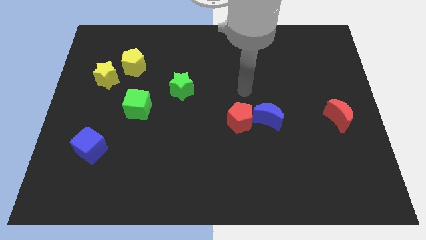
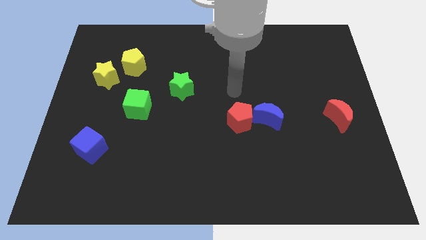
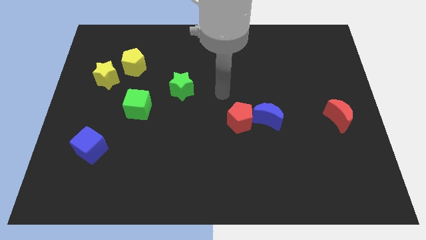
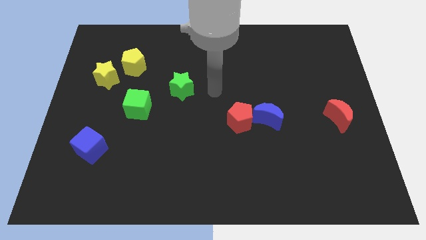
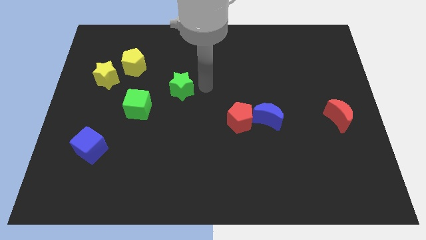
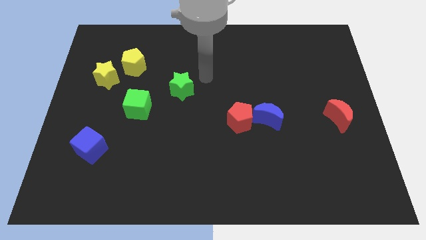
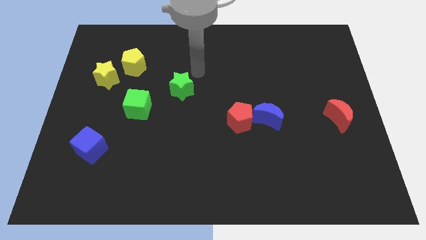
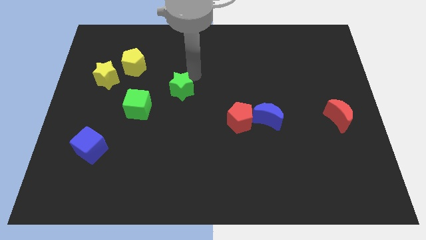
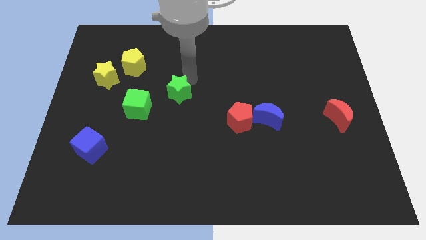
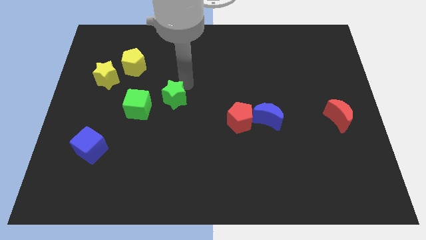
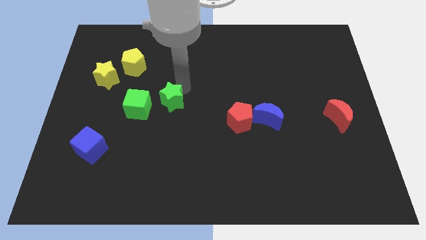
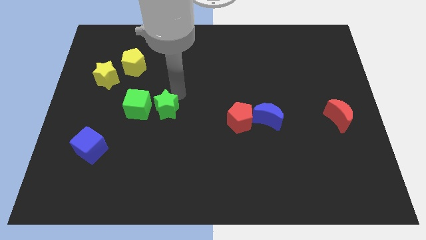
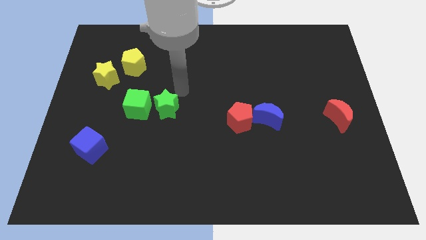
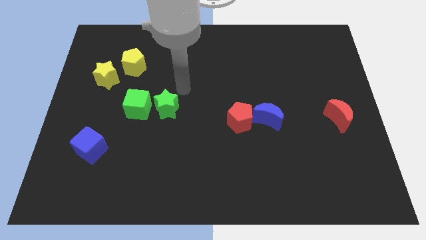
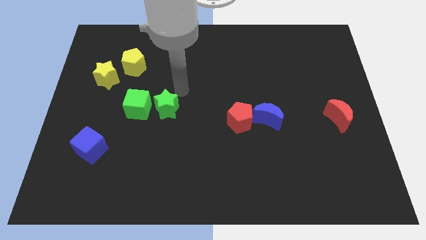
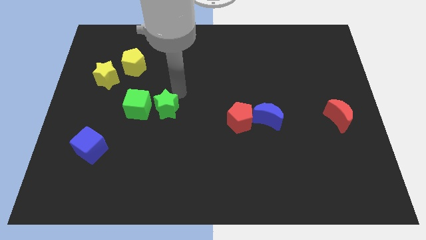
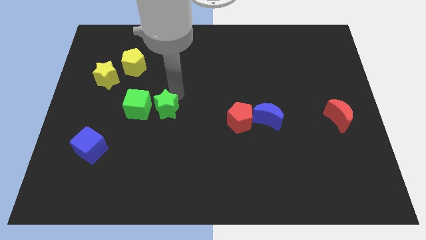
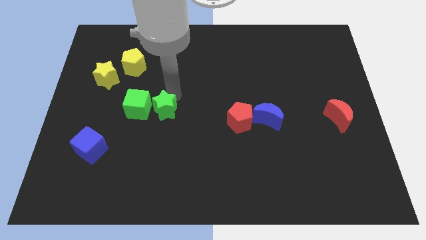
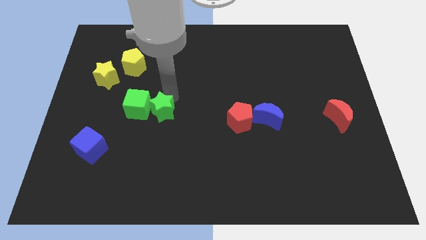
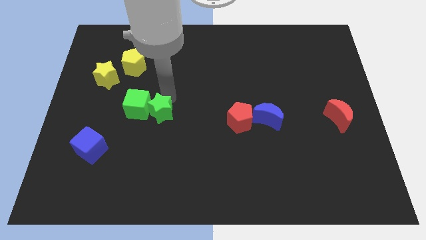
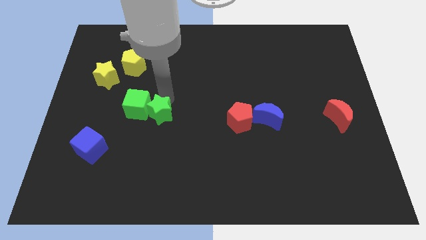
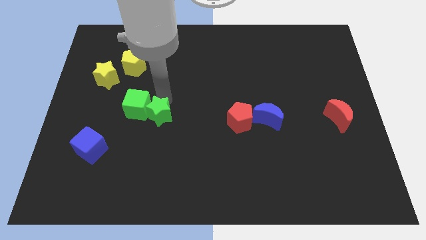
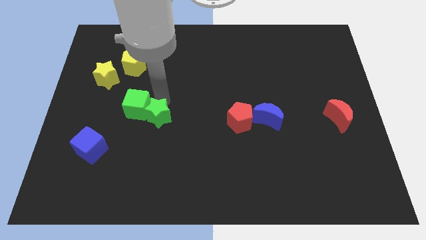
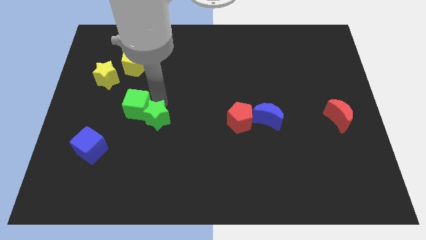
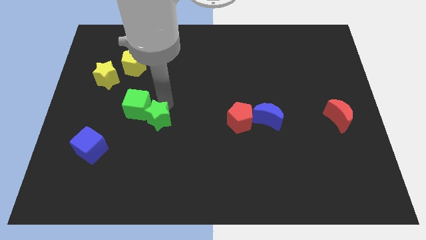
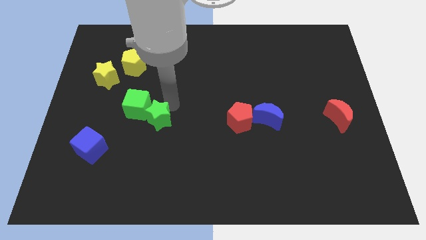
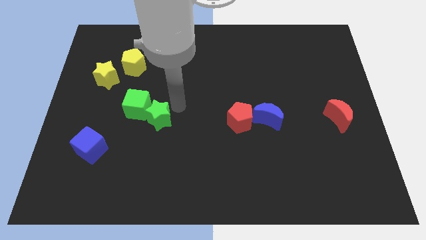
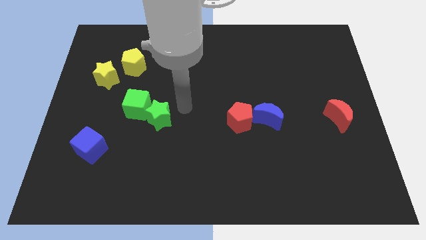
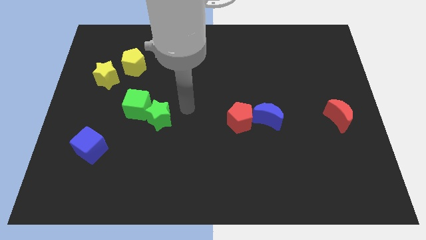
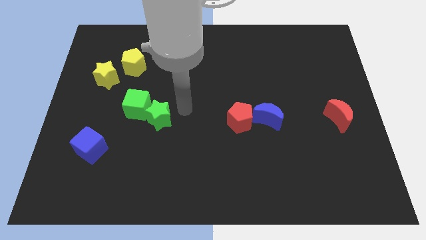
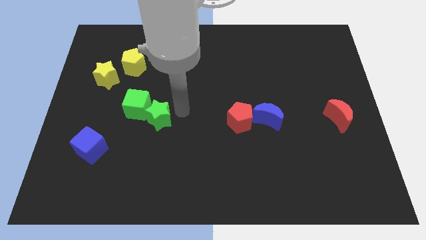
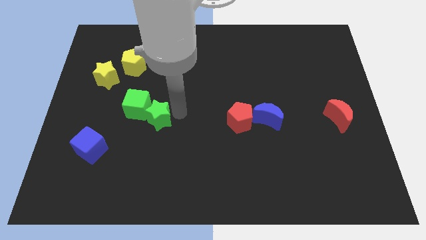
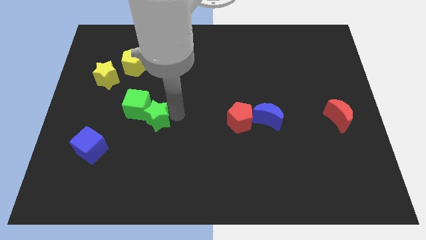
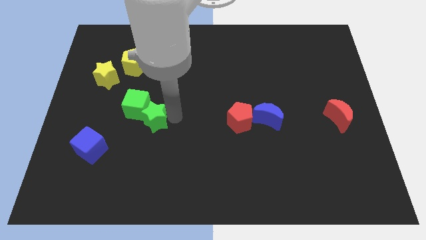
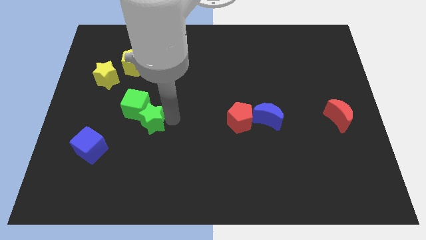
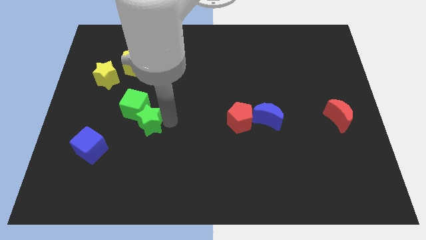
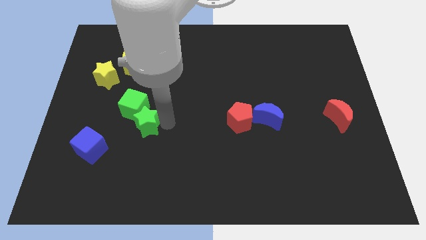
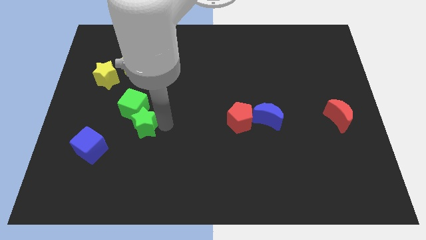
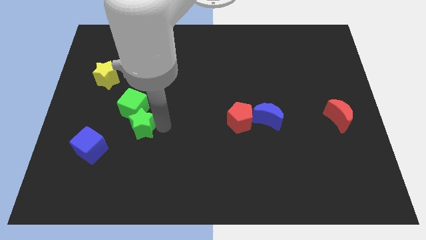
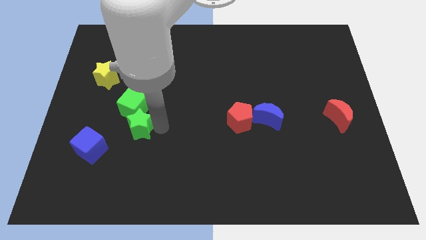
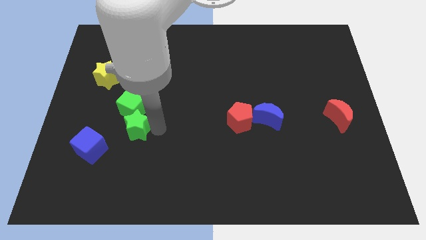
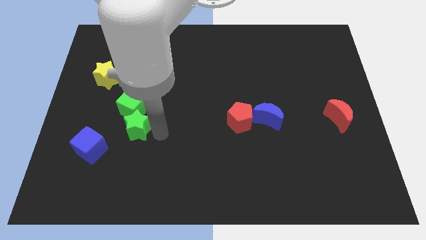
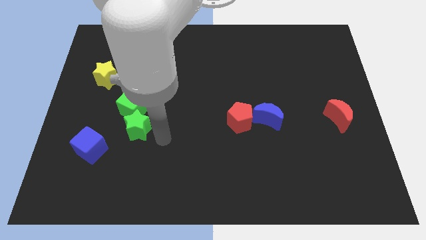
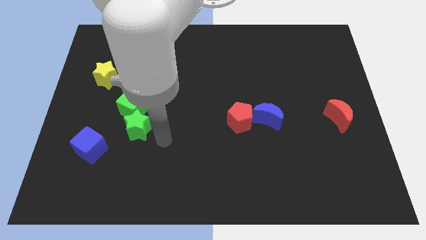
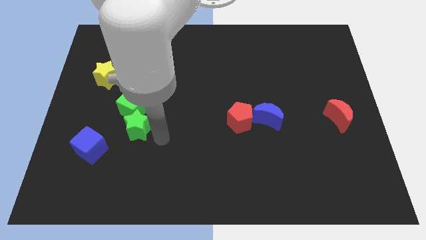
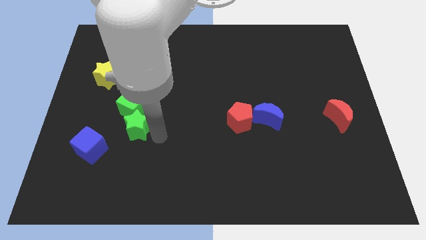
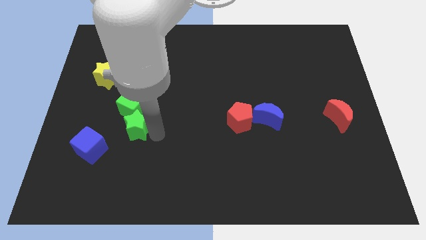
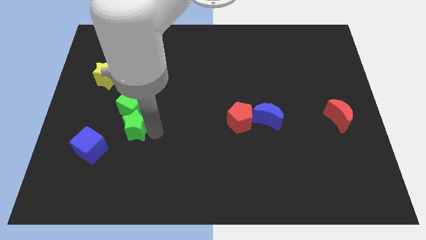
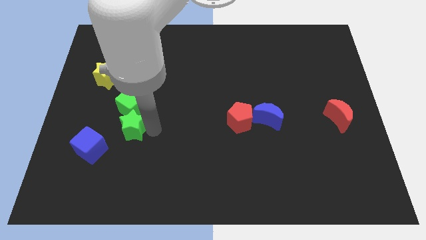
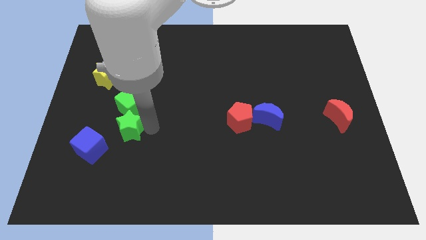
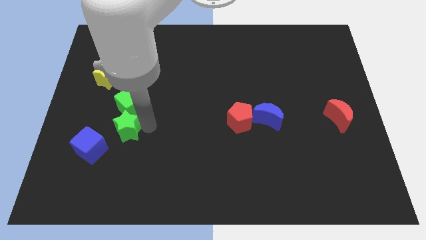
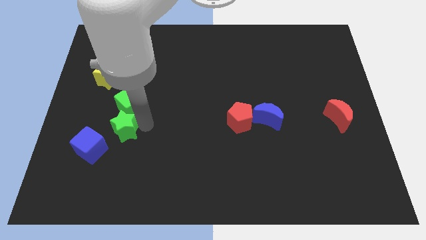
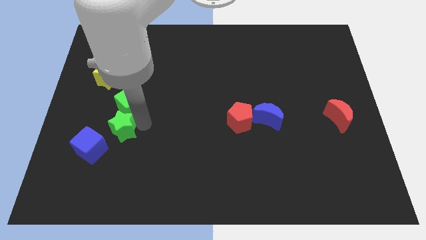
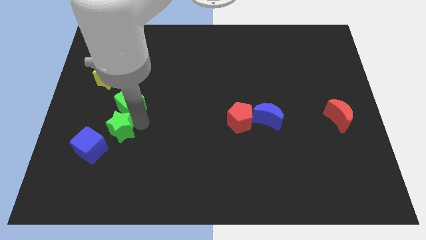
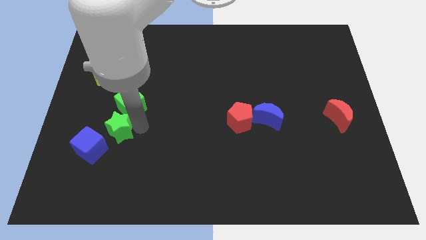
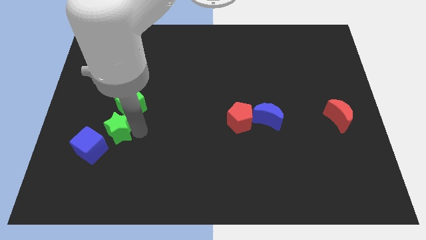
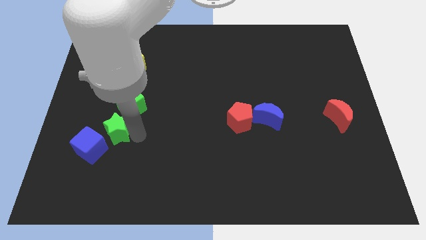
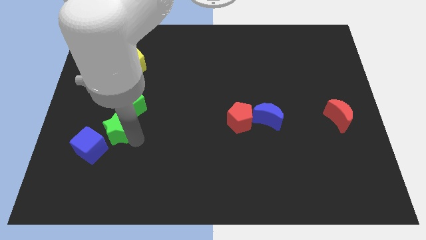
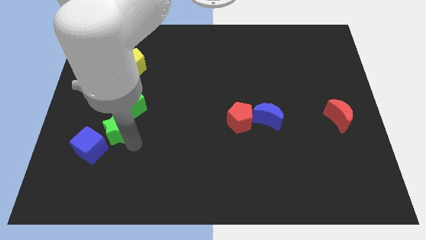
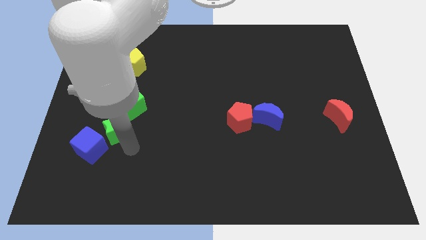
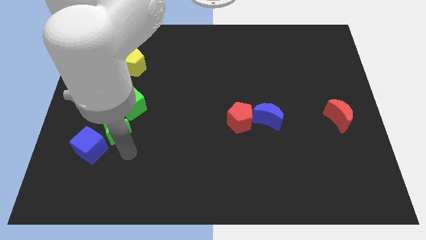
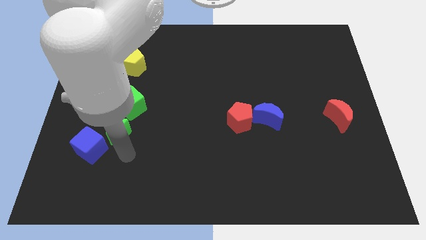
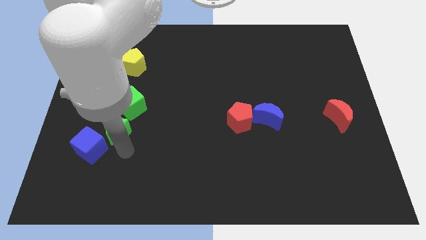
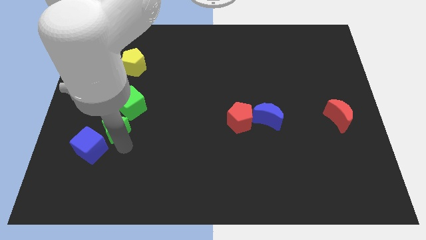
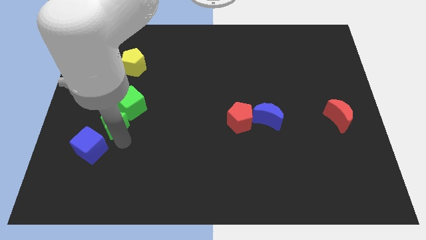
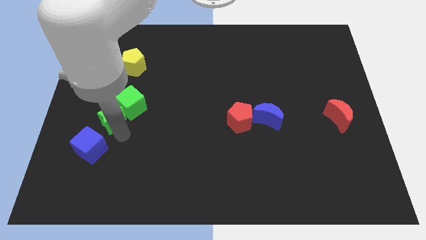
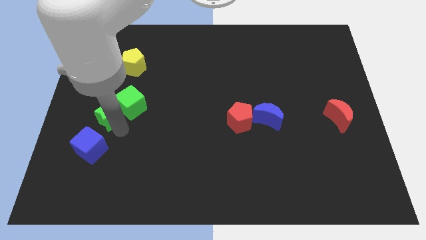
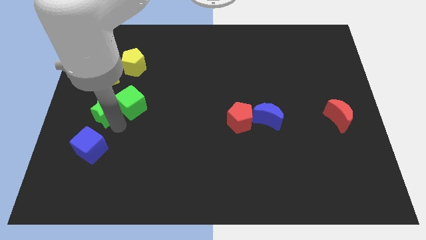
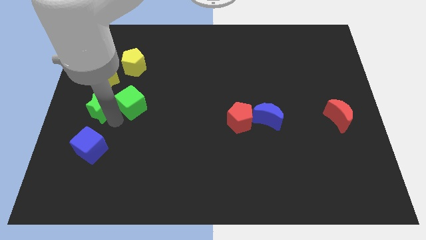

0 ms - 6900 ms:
slide the green star to the left side

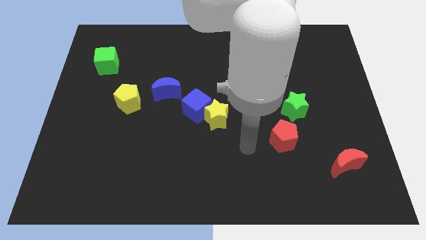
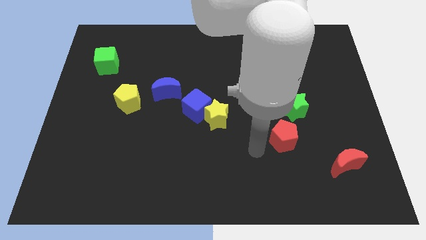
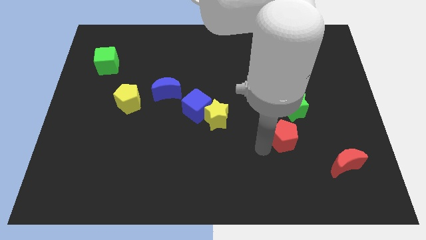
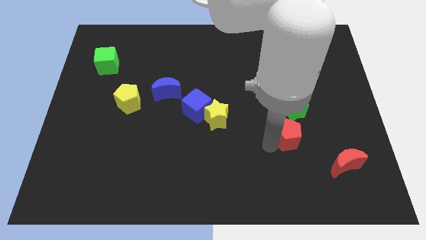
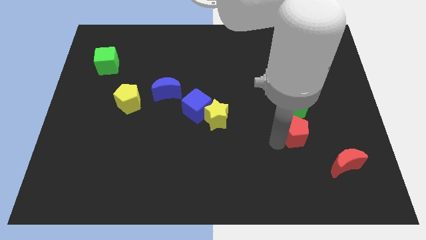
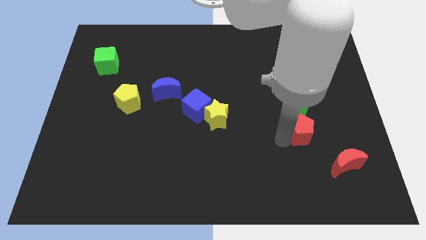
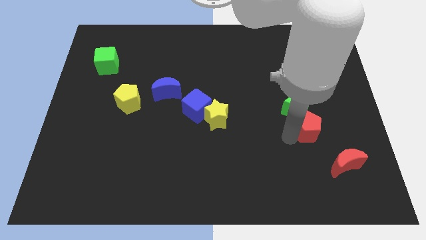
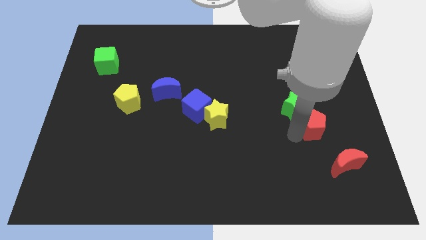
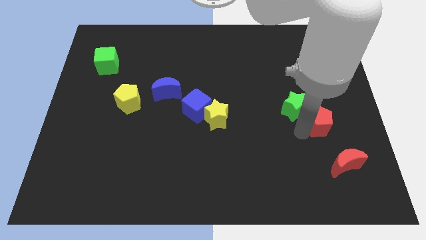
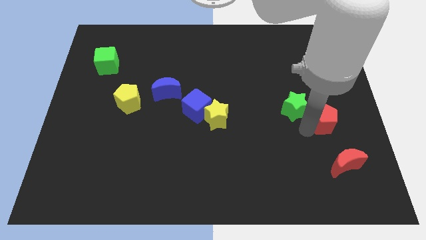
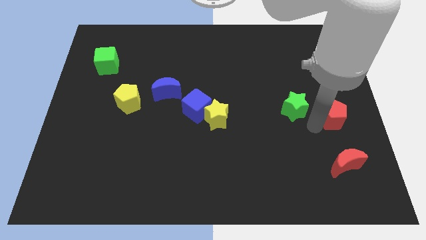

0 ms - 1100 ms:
put the red pentagon to the center right
